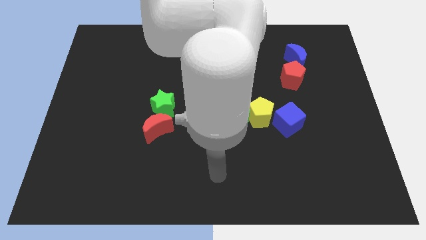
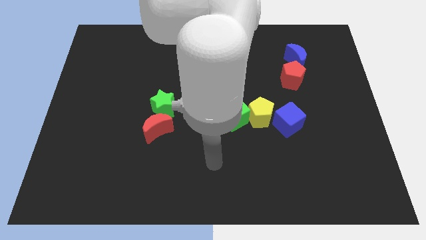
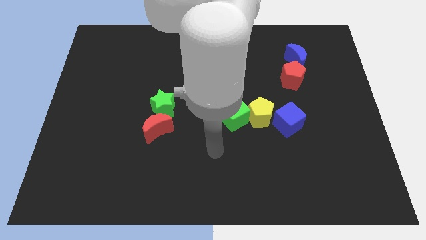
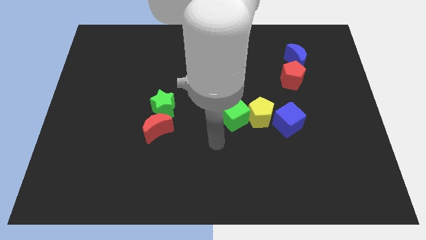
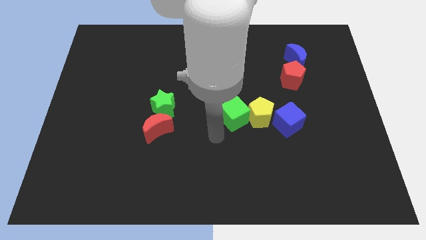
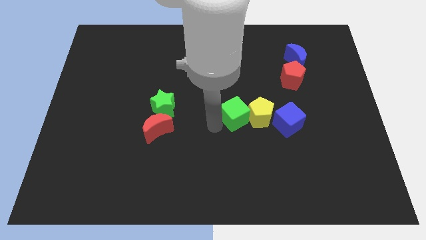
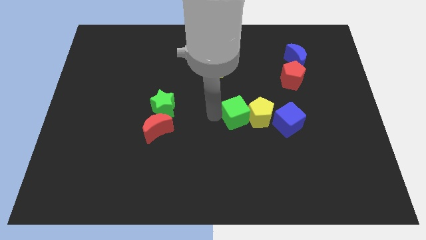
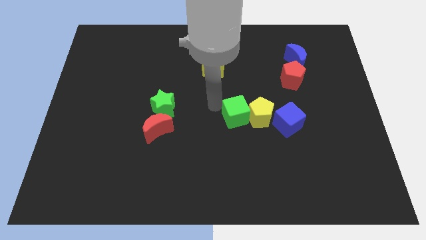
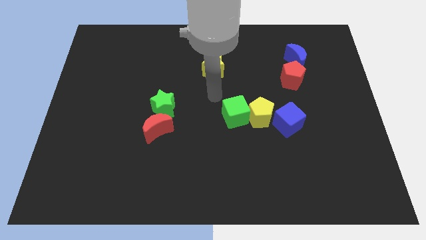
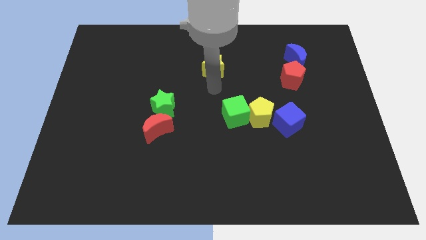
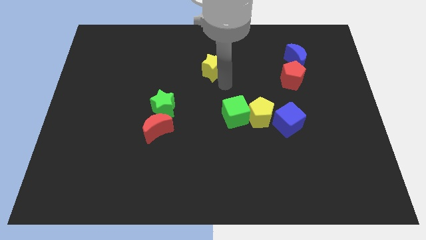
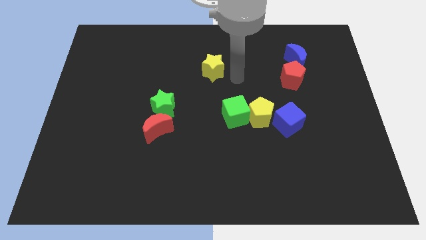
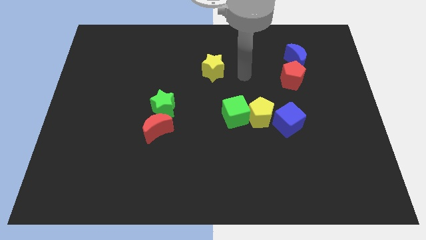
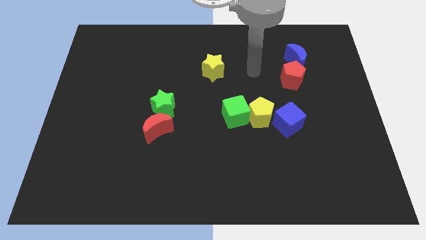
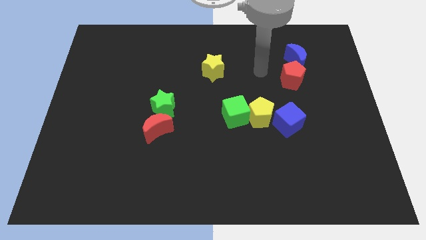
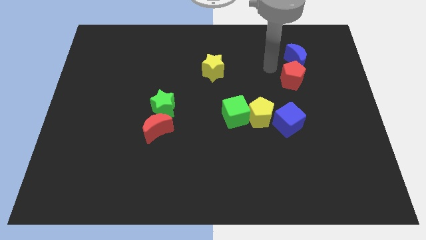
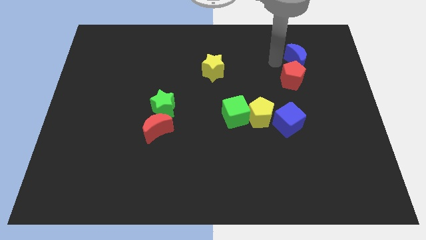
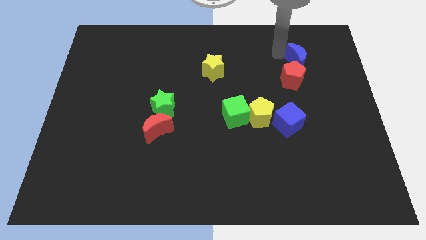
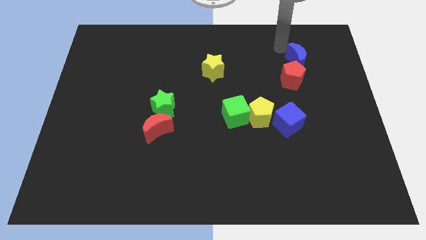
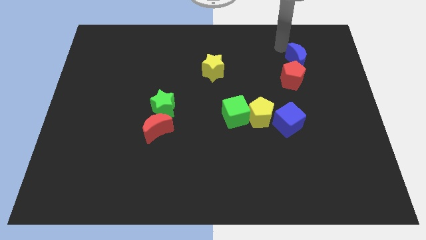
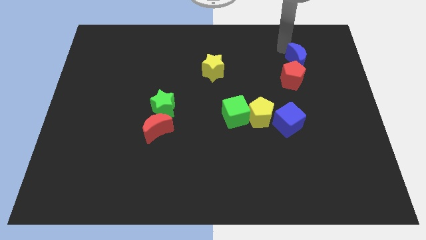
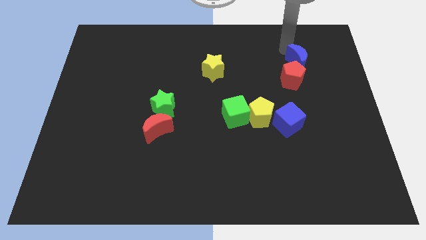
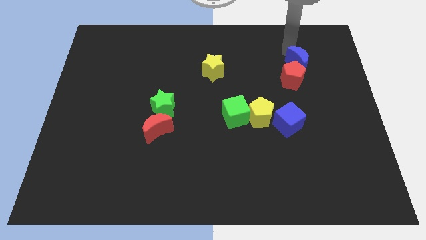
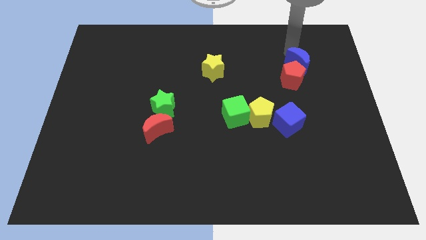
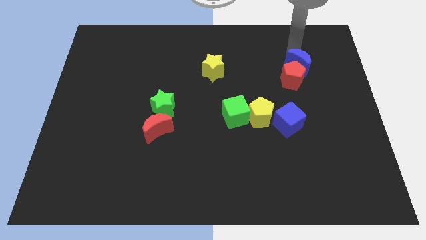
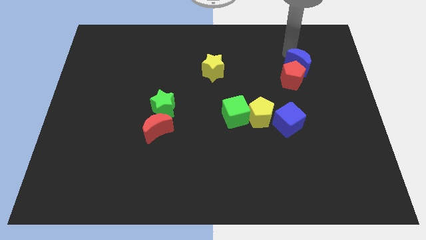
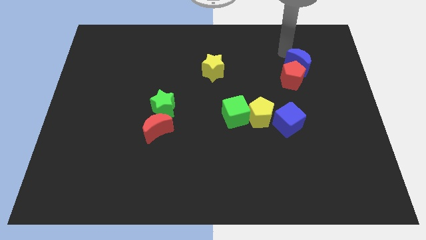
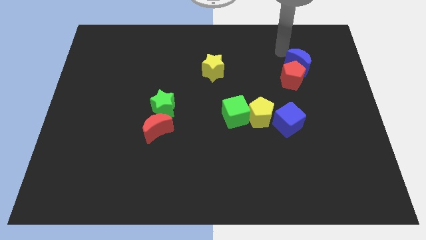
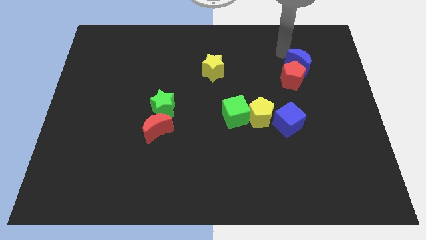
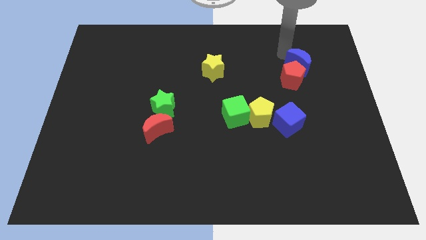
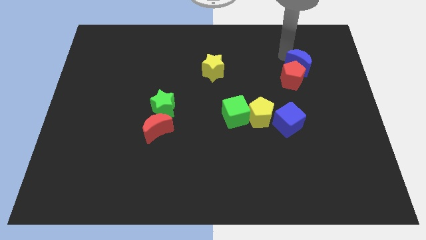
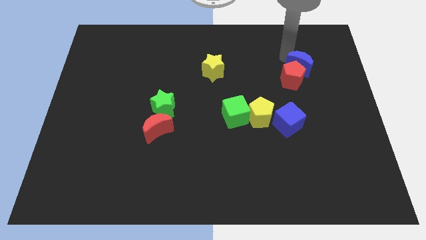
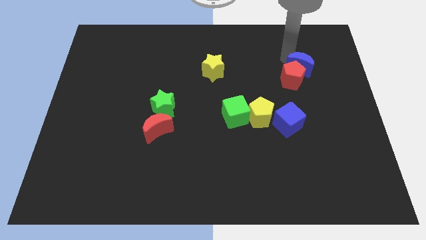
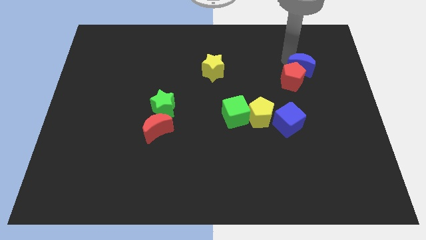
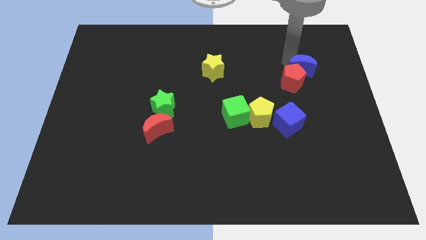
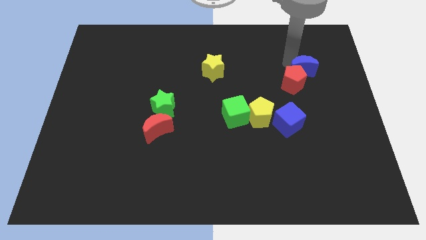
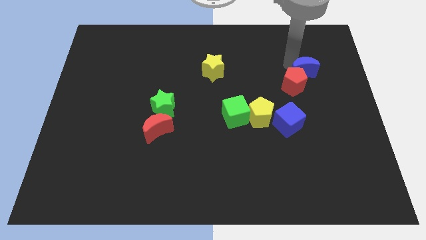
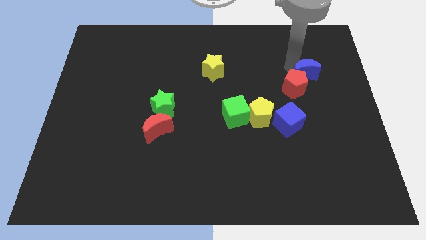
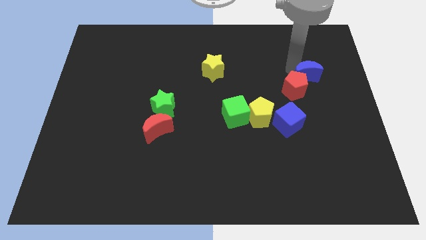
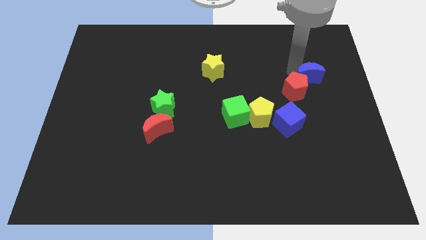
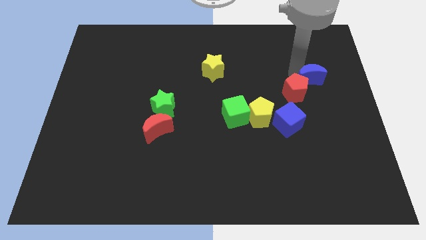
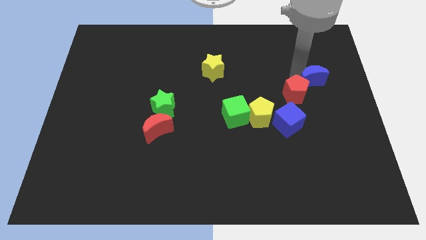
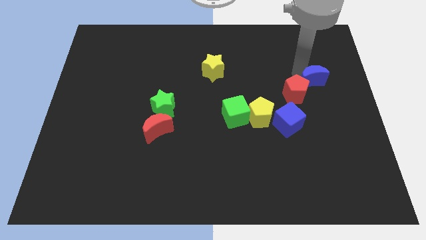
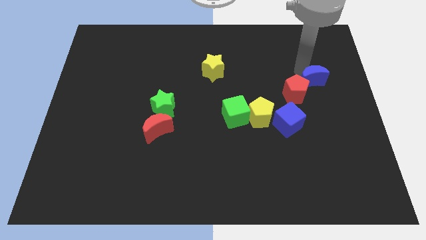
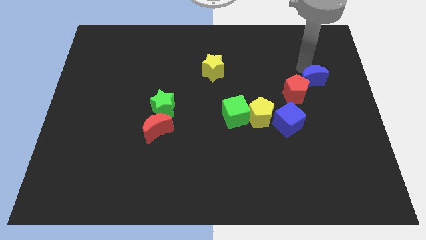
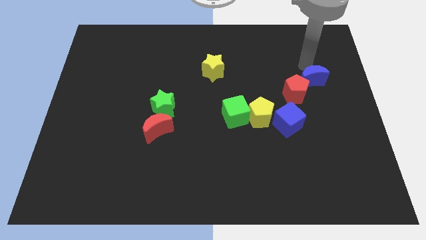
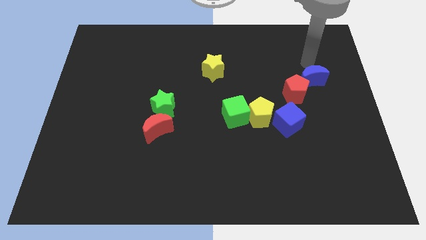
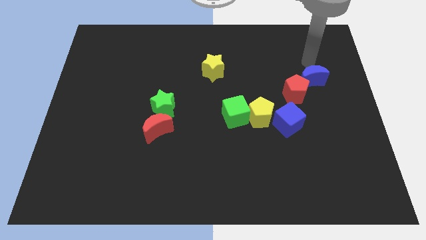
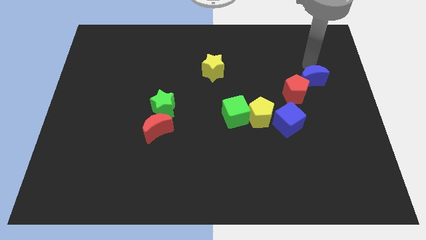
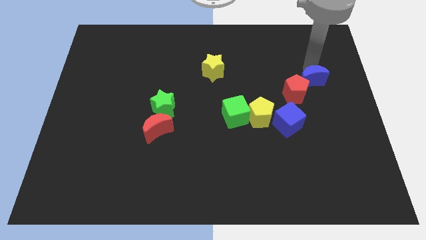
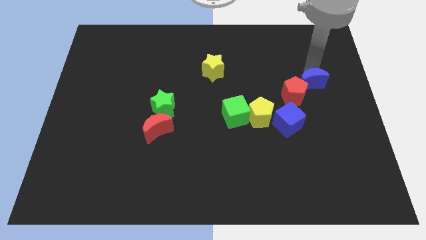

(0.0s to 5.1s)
slide the blue moon slightly down

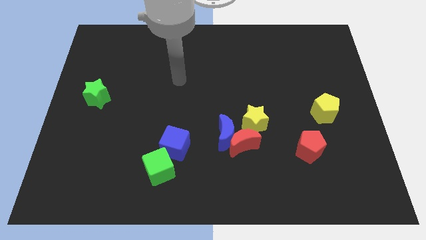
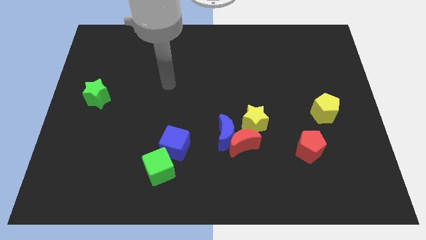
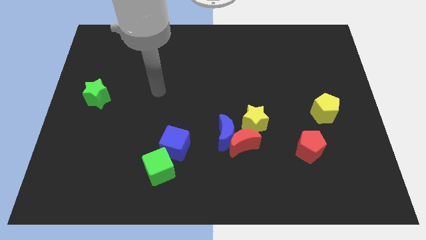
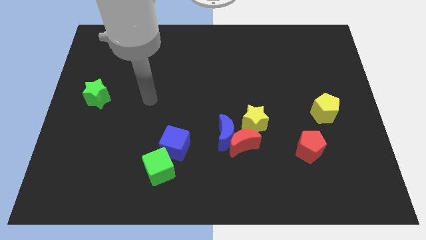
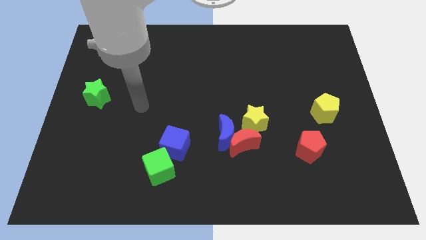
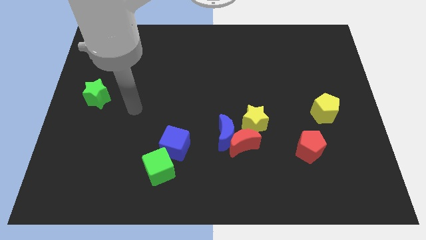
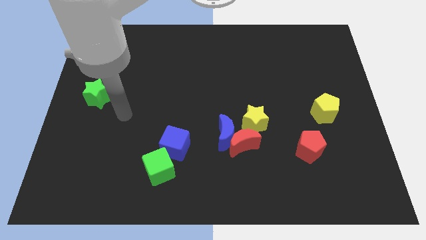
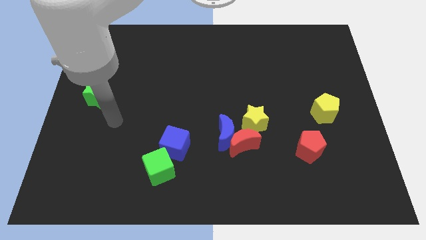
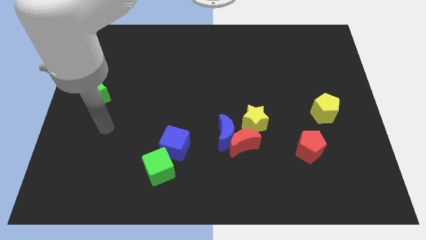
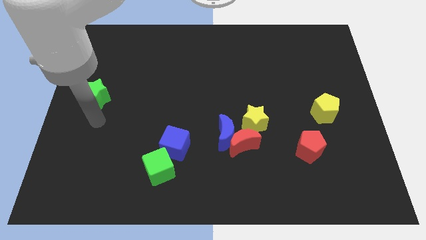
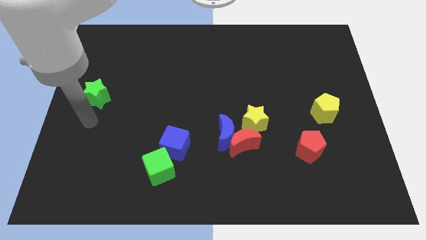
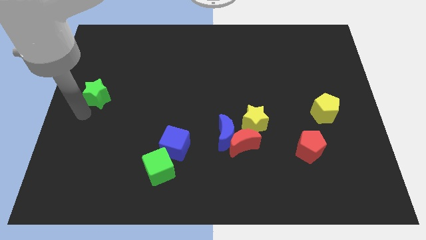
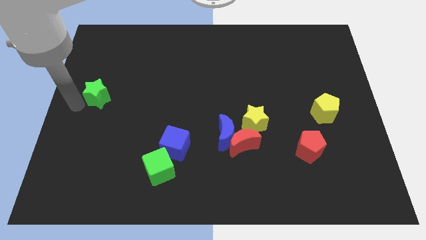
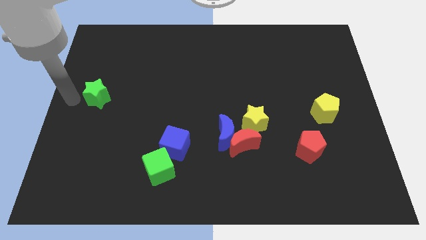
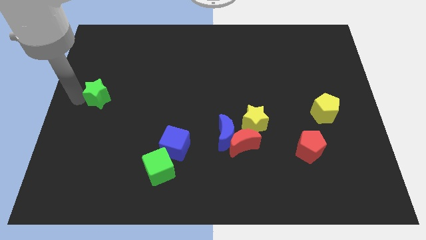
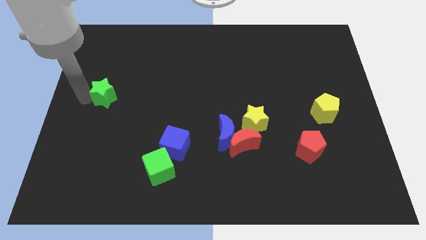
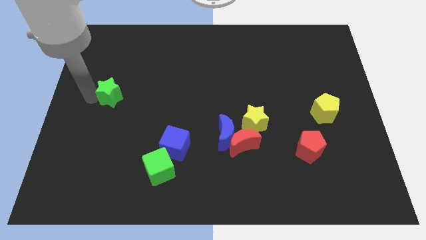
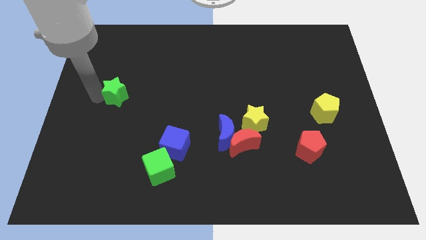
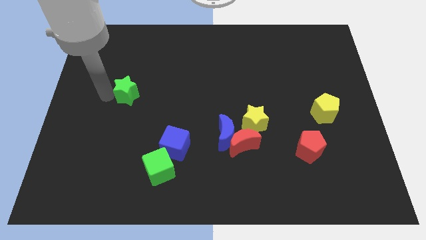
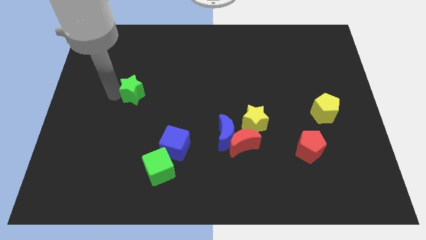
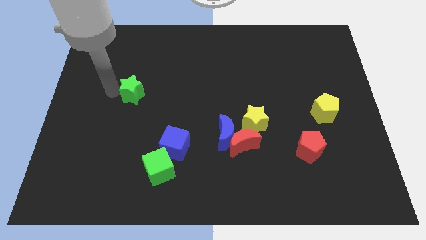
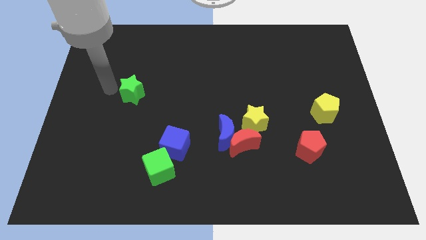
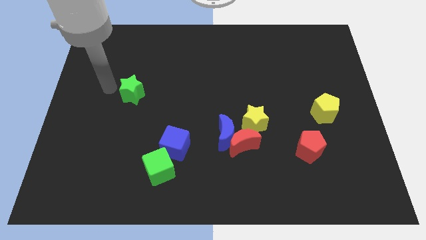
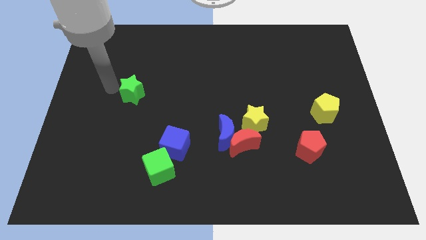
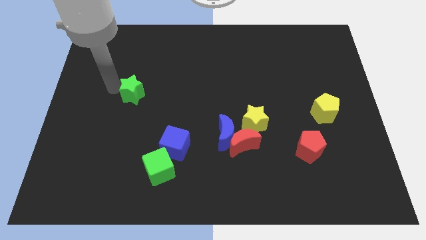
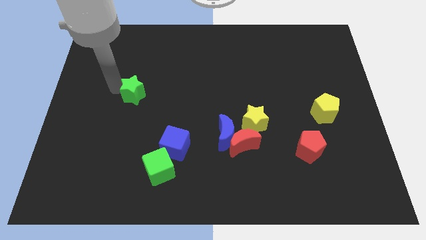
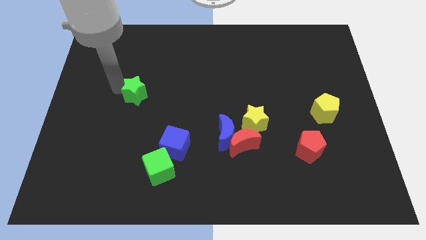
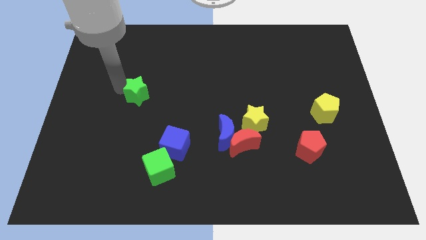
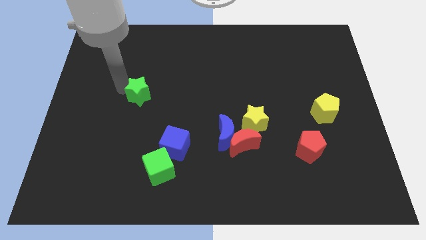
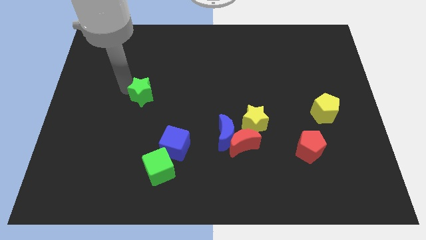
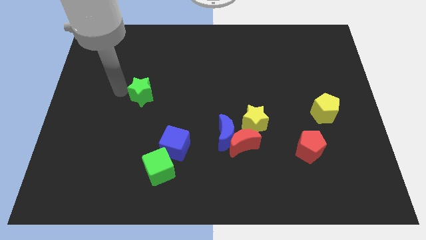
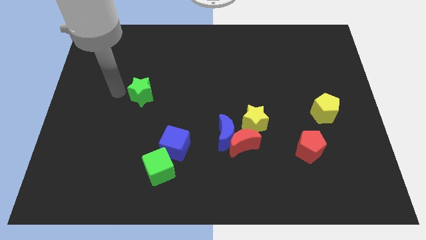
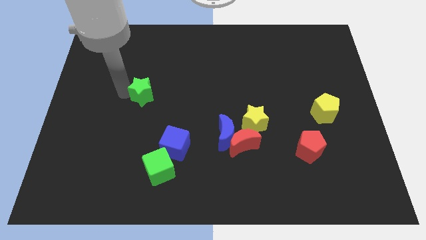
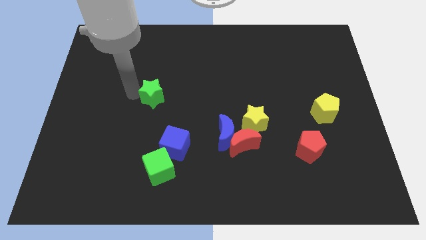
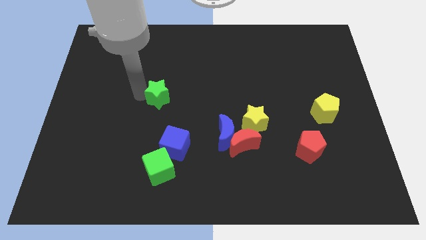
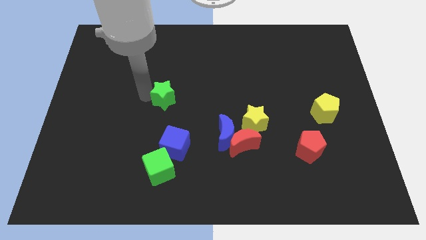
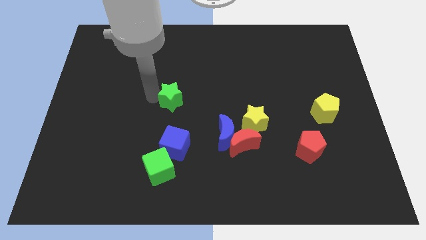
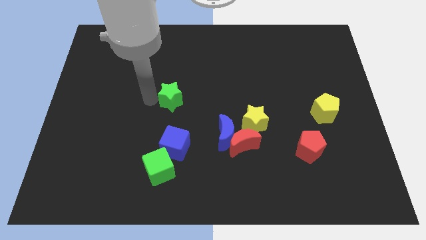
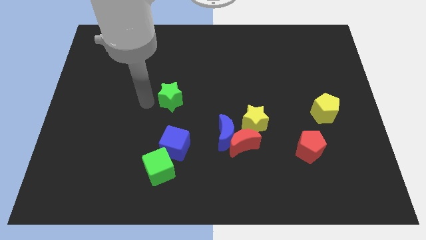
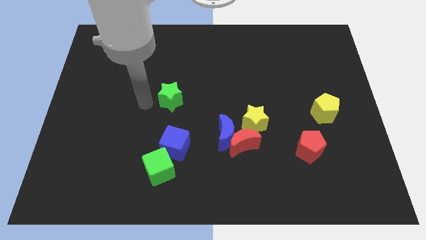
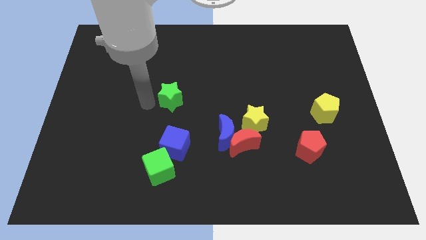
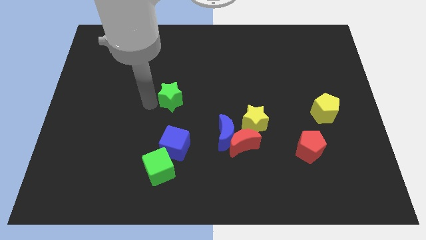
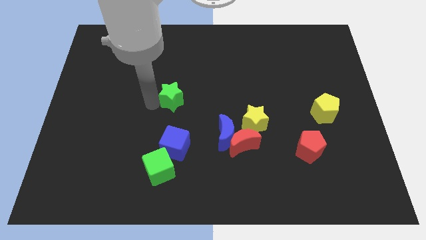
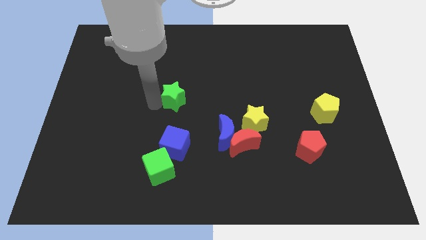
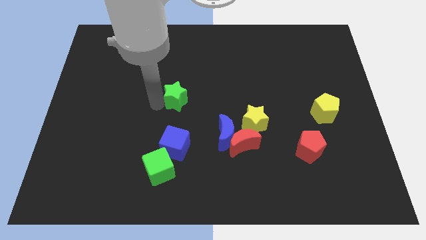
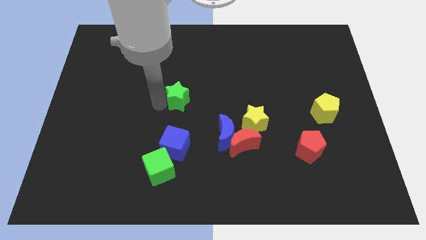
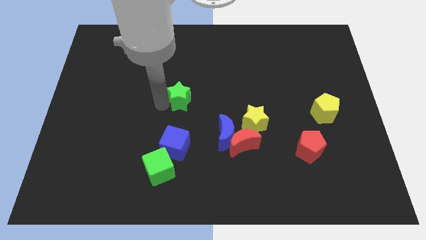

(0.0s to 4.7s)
push the green star to the right
